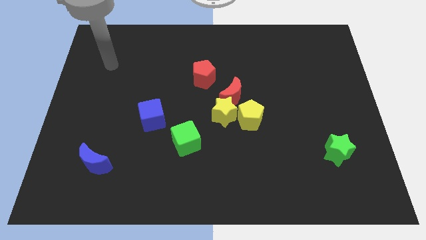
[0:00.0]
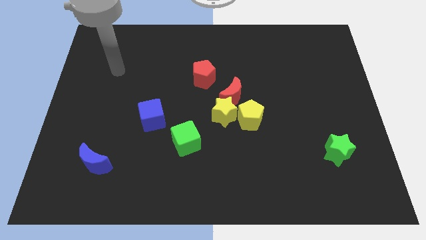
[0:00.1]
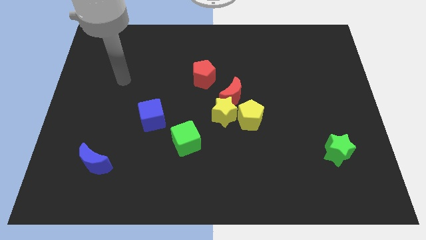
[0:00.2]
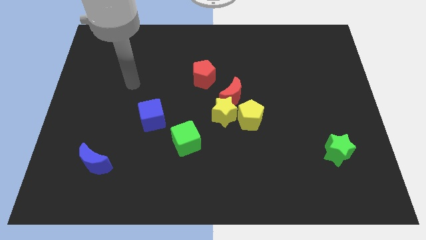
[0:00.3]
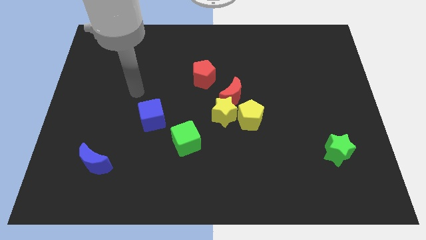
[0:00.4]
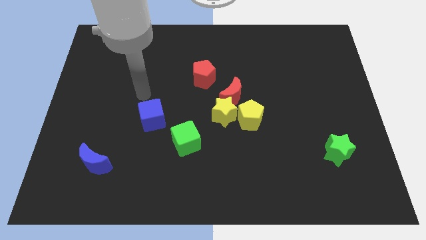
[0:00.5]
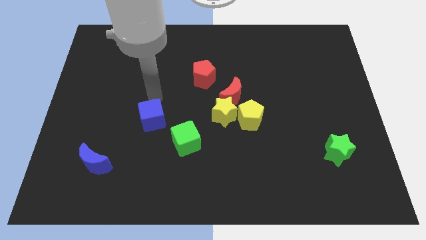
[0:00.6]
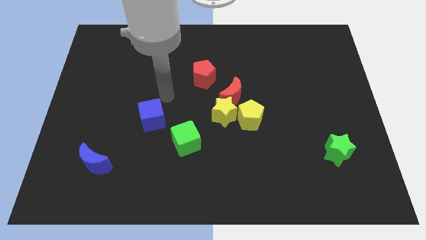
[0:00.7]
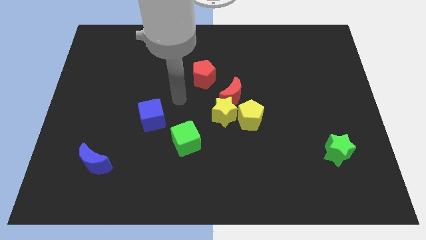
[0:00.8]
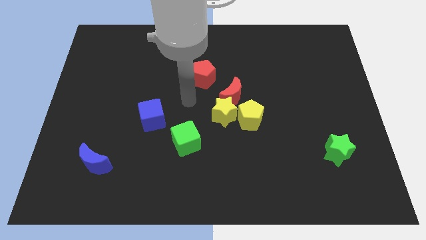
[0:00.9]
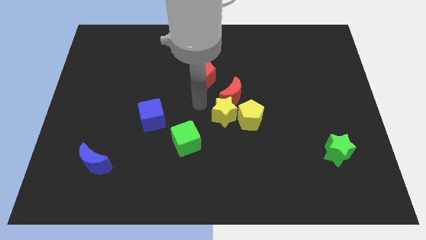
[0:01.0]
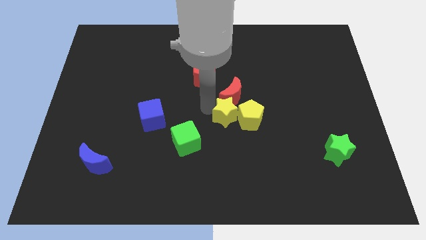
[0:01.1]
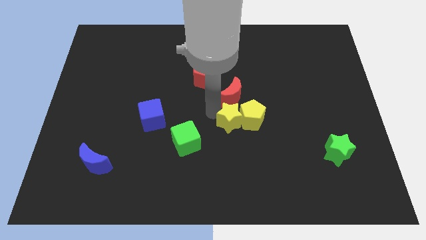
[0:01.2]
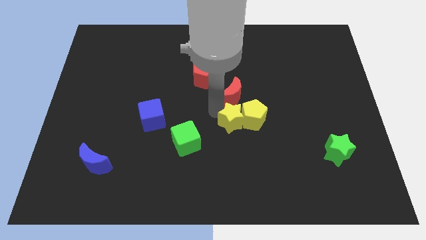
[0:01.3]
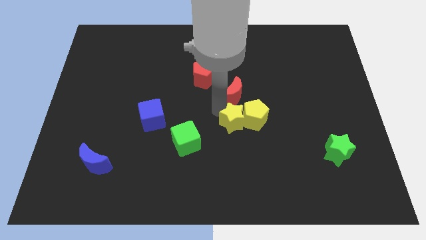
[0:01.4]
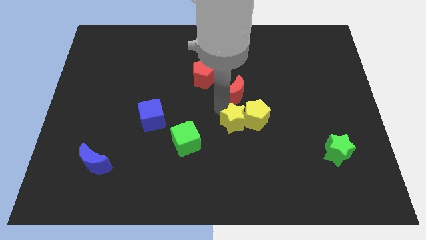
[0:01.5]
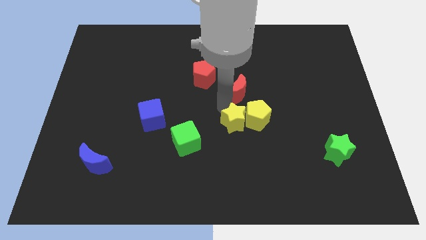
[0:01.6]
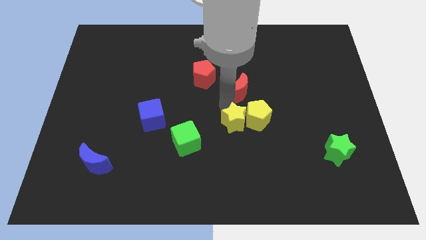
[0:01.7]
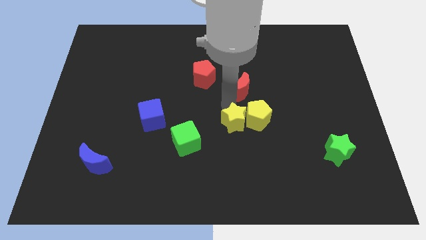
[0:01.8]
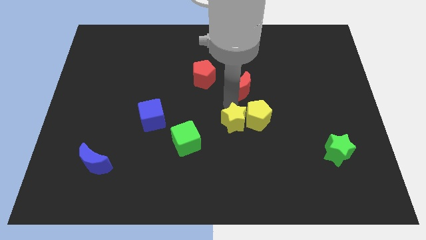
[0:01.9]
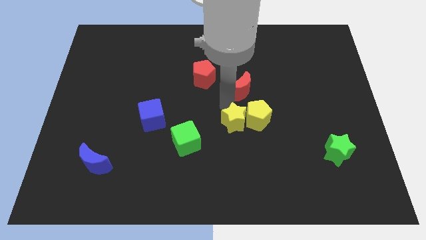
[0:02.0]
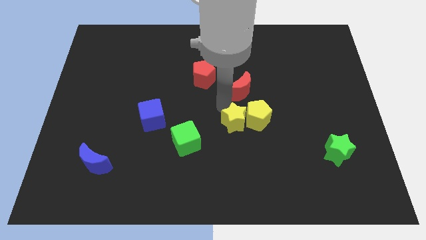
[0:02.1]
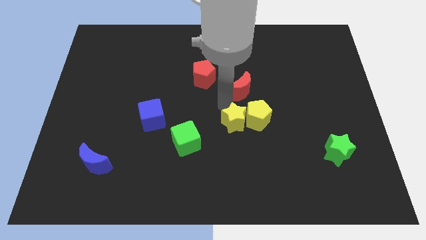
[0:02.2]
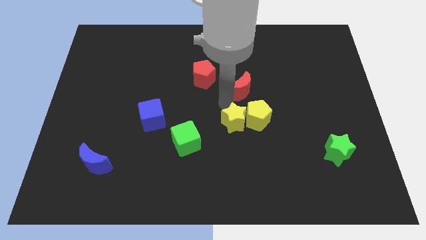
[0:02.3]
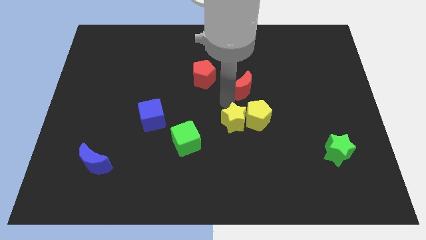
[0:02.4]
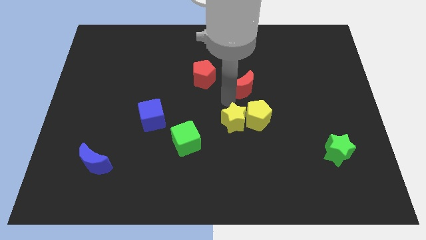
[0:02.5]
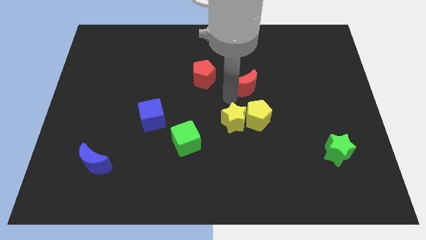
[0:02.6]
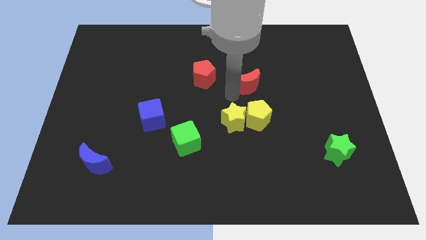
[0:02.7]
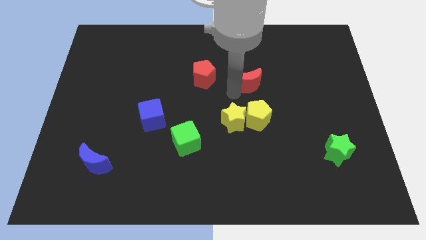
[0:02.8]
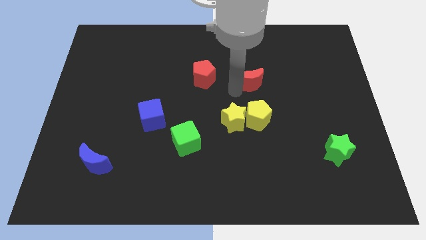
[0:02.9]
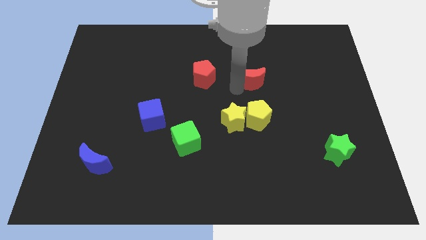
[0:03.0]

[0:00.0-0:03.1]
slightly move the red moon upwards and right

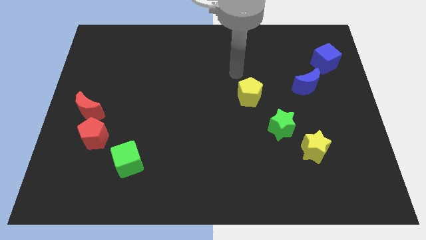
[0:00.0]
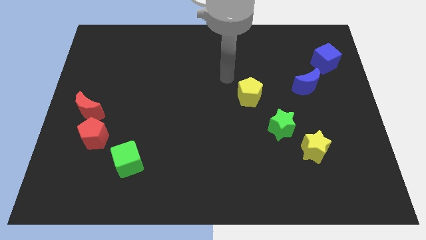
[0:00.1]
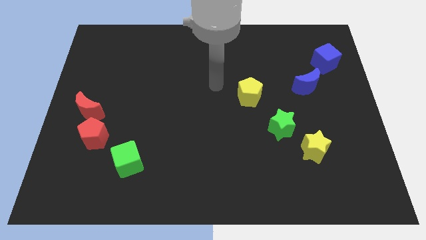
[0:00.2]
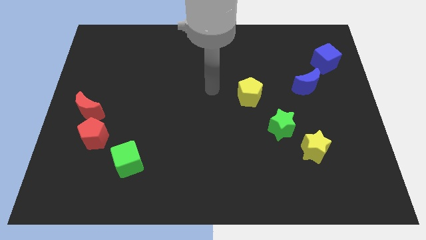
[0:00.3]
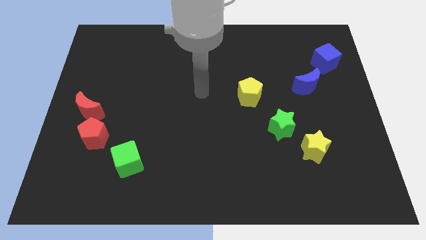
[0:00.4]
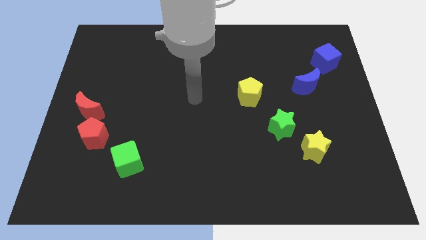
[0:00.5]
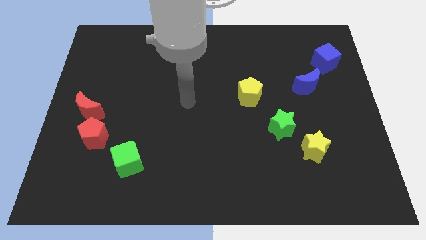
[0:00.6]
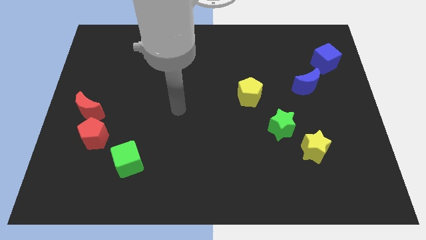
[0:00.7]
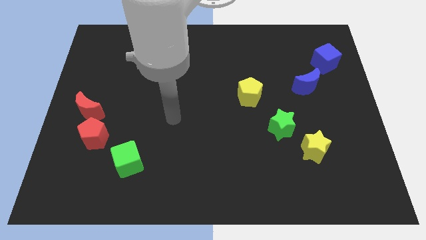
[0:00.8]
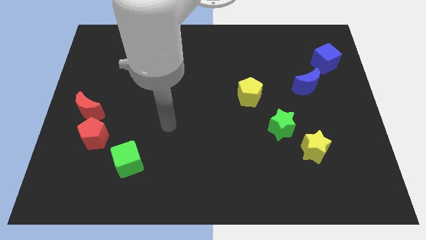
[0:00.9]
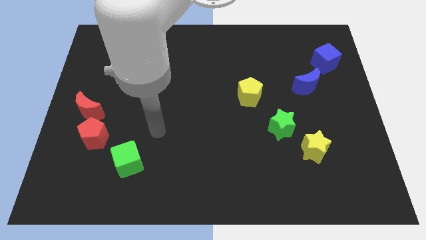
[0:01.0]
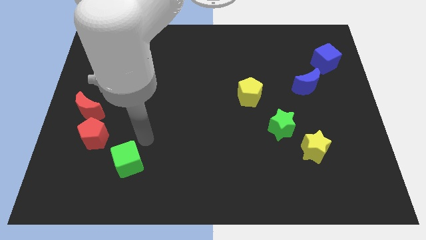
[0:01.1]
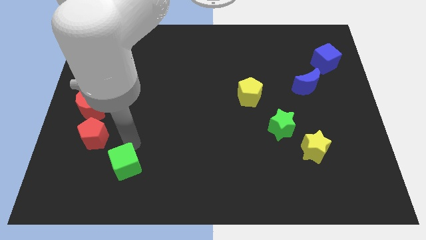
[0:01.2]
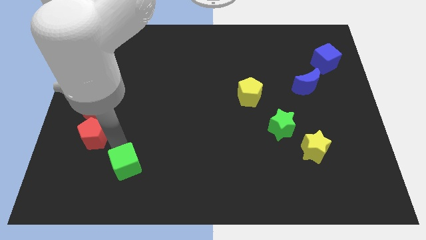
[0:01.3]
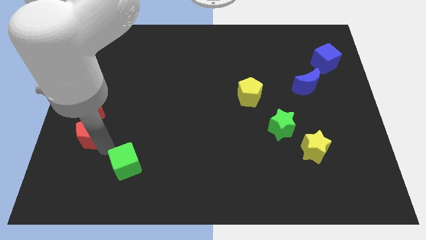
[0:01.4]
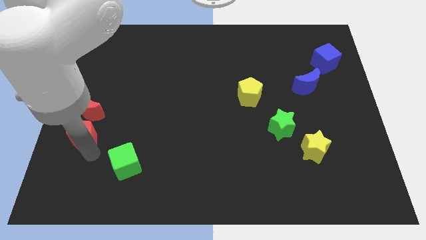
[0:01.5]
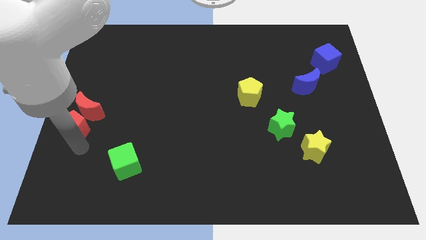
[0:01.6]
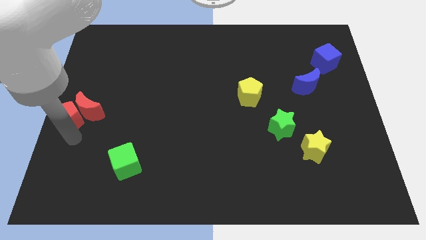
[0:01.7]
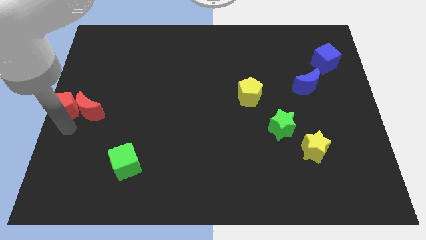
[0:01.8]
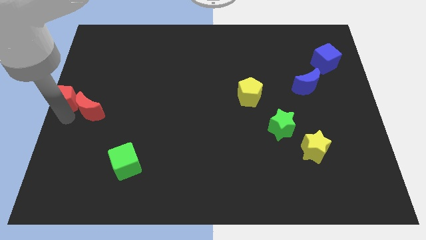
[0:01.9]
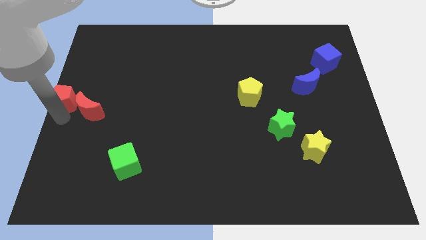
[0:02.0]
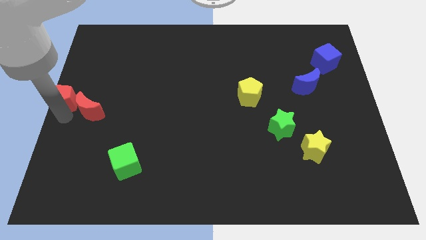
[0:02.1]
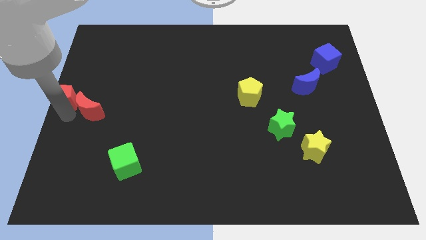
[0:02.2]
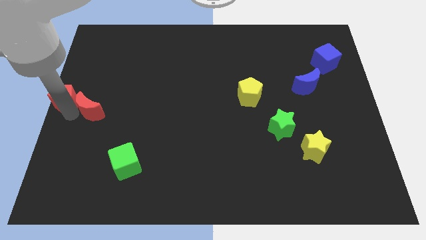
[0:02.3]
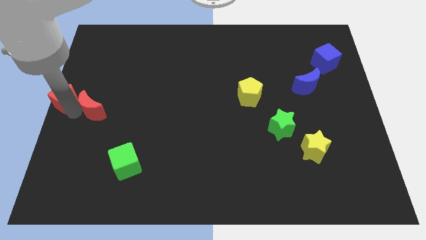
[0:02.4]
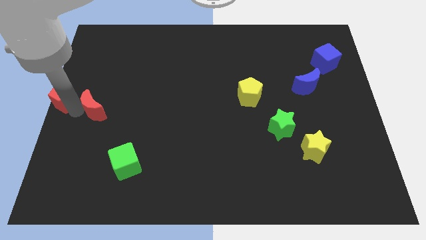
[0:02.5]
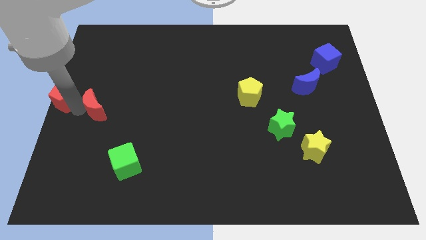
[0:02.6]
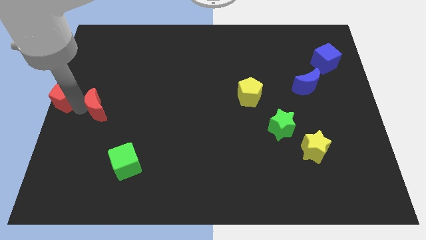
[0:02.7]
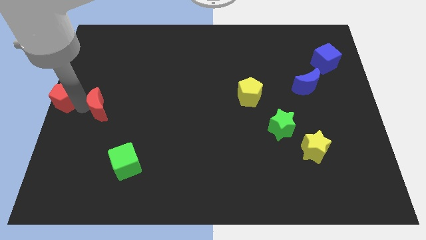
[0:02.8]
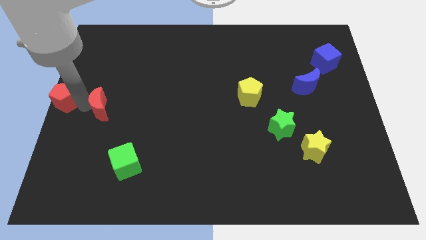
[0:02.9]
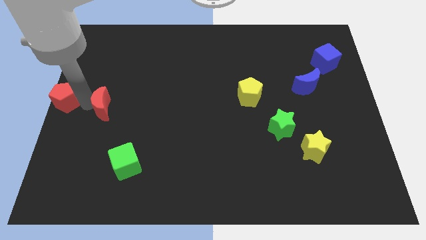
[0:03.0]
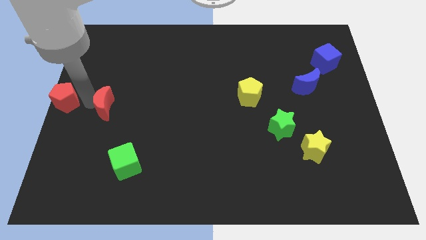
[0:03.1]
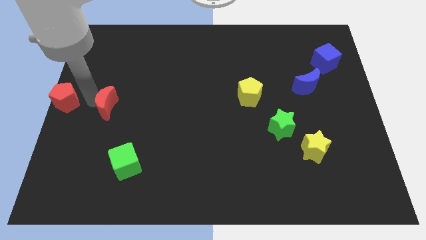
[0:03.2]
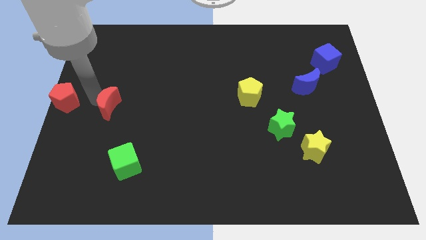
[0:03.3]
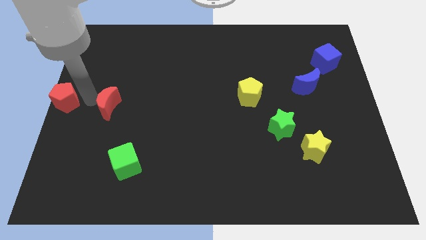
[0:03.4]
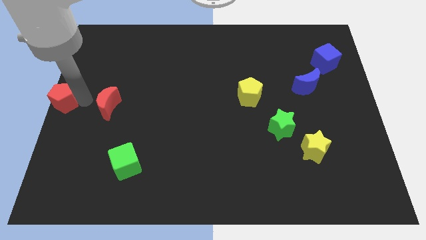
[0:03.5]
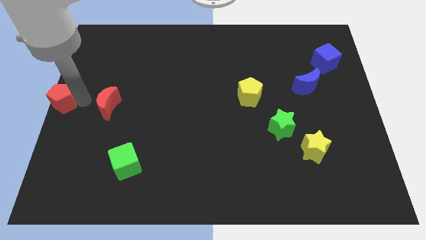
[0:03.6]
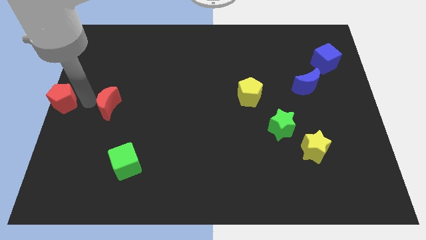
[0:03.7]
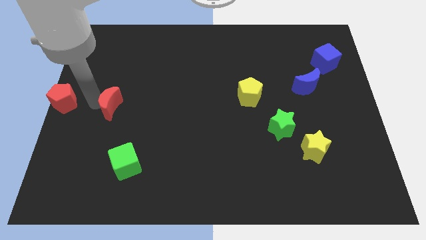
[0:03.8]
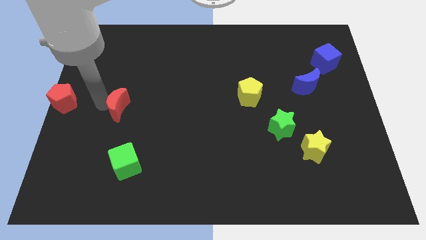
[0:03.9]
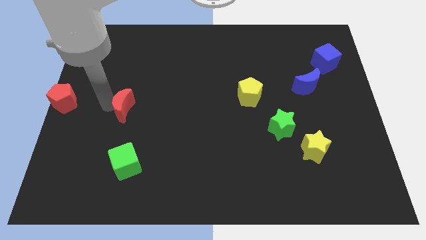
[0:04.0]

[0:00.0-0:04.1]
slightly push the red moon right

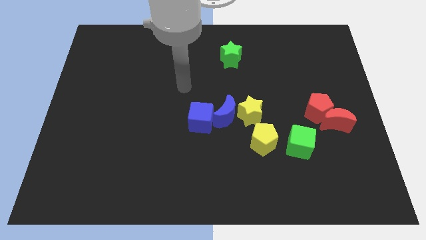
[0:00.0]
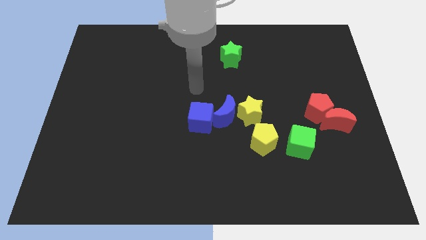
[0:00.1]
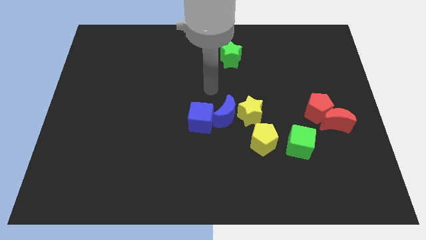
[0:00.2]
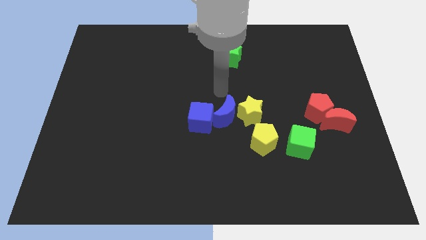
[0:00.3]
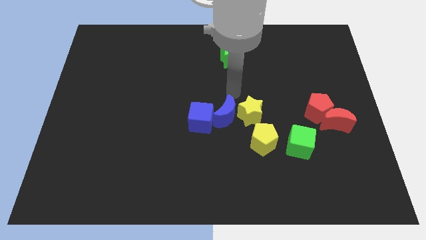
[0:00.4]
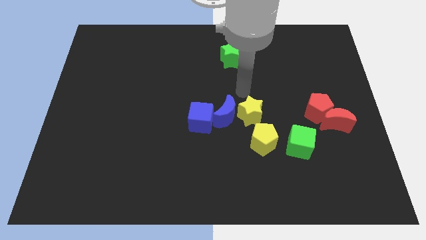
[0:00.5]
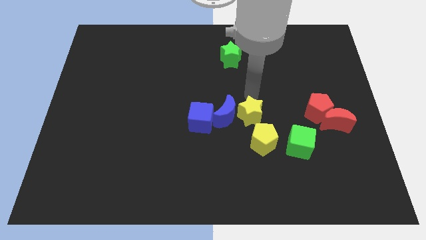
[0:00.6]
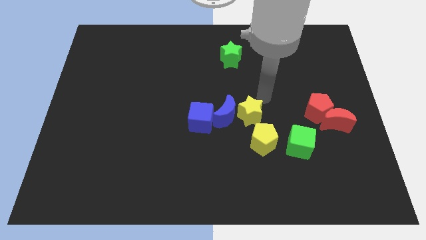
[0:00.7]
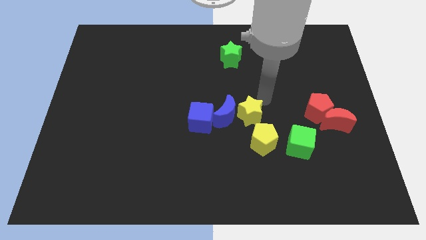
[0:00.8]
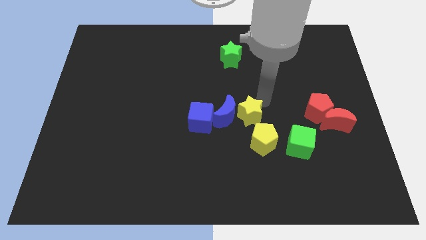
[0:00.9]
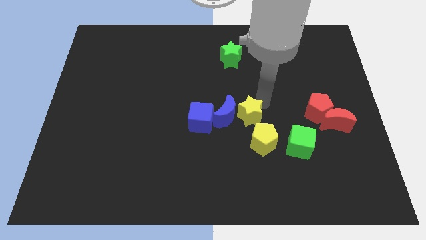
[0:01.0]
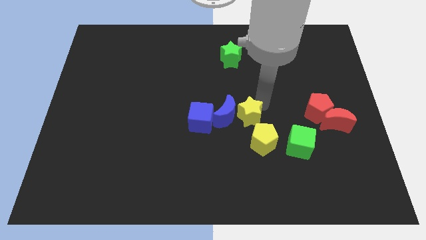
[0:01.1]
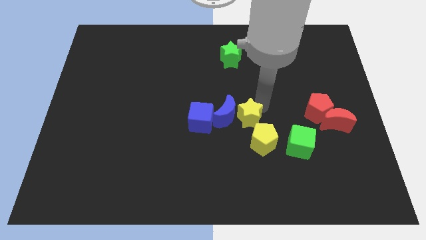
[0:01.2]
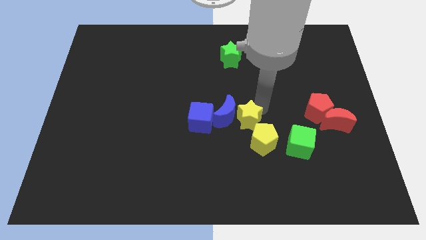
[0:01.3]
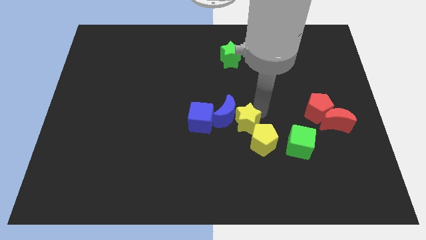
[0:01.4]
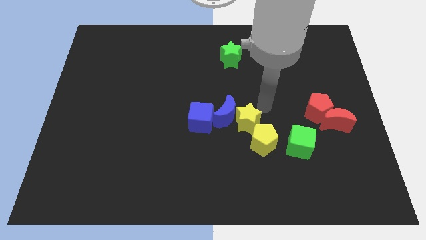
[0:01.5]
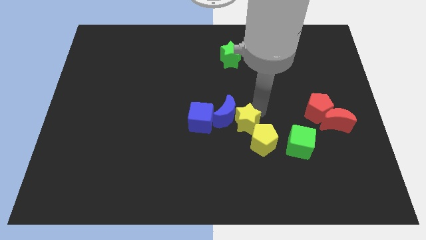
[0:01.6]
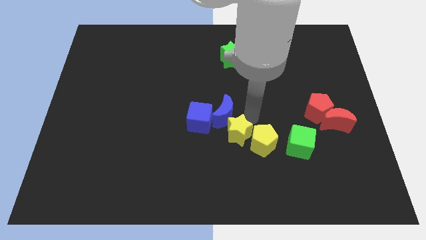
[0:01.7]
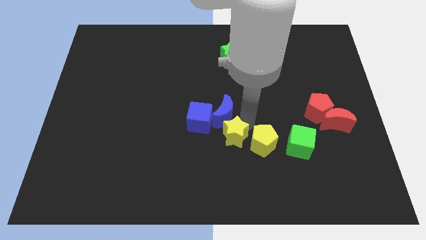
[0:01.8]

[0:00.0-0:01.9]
slightly slide the yellow star down and to the left diagonally
